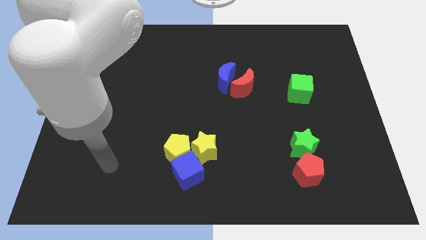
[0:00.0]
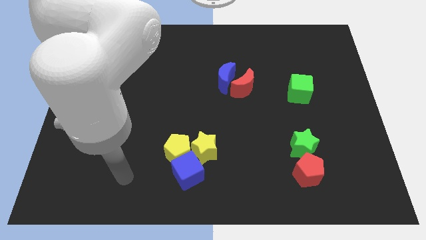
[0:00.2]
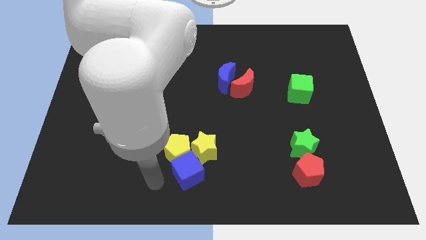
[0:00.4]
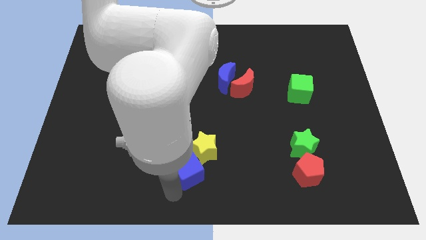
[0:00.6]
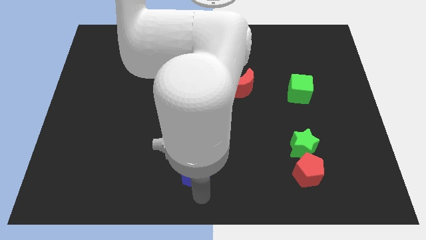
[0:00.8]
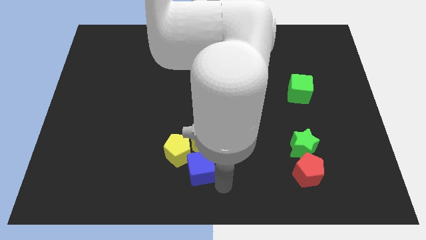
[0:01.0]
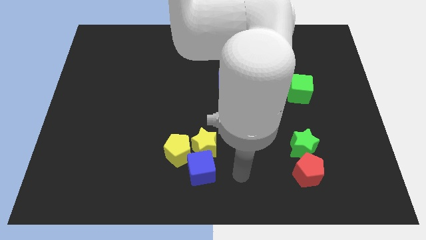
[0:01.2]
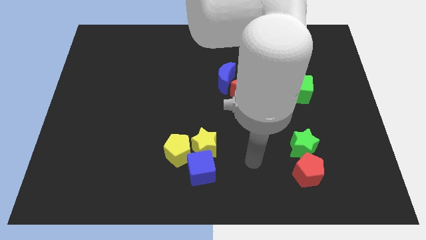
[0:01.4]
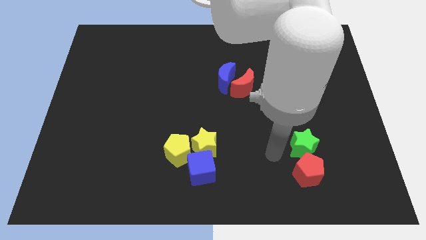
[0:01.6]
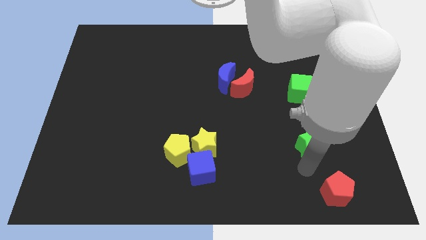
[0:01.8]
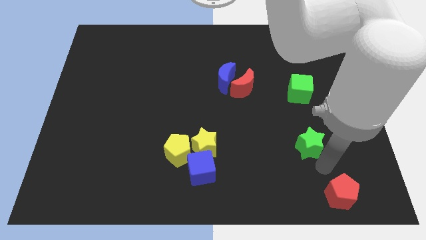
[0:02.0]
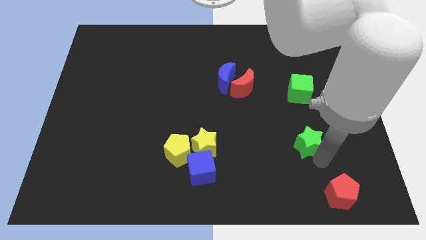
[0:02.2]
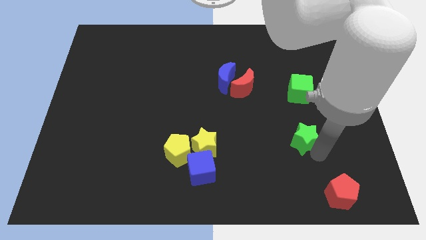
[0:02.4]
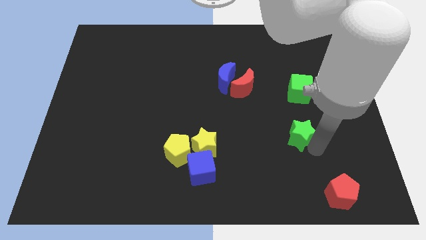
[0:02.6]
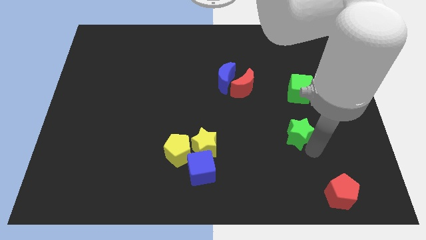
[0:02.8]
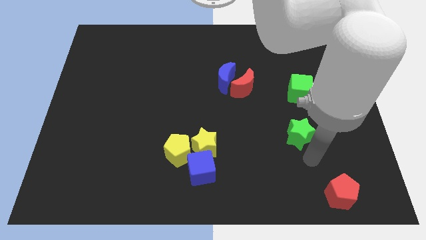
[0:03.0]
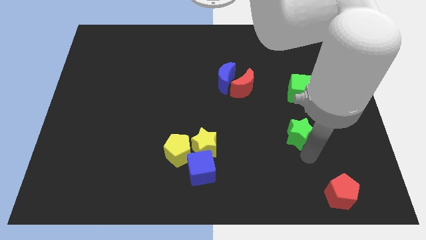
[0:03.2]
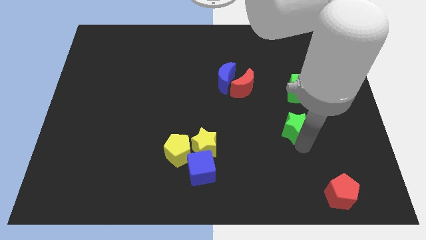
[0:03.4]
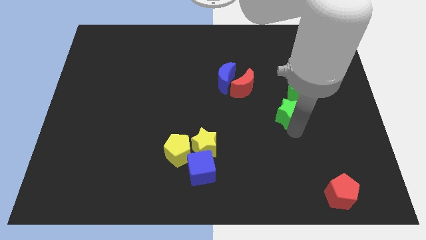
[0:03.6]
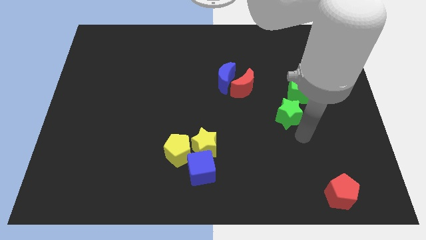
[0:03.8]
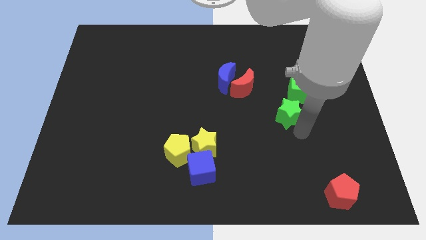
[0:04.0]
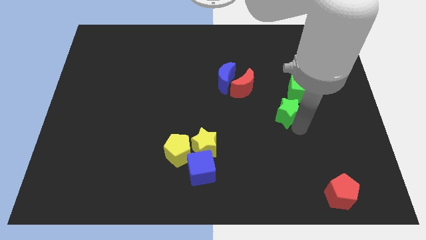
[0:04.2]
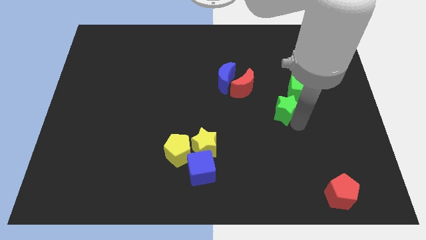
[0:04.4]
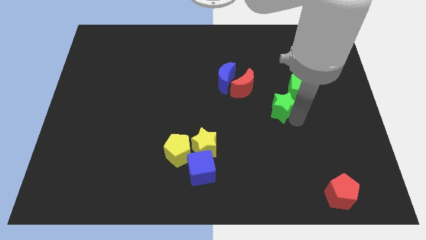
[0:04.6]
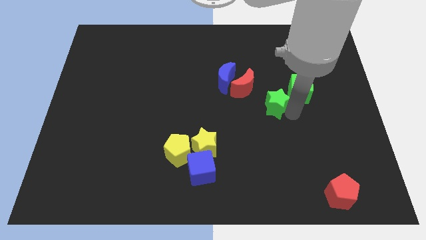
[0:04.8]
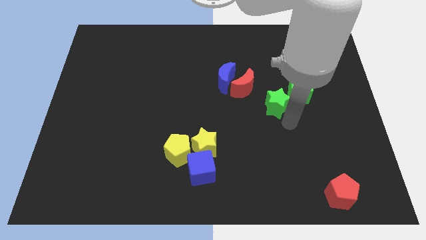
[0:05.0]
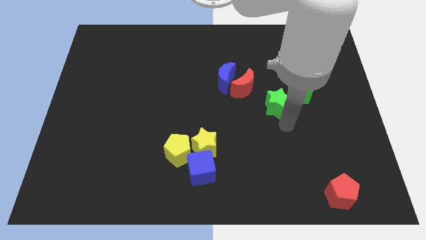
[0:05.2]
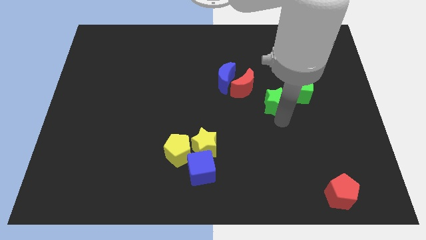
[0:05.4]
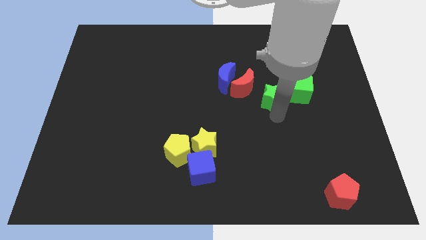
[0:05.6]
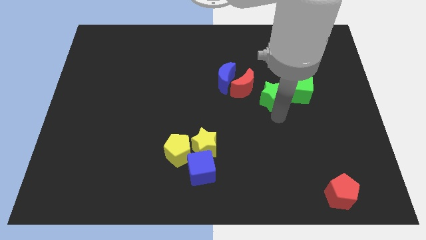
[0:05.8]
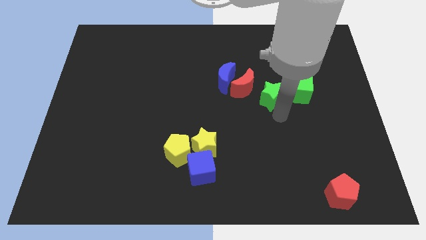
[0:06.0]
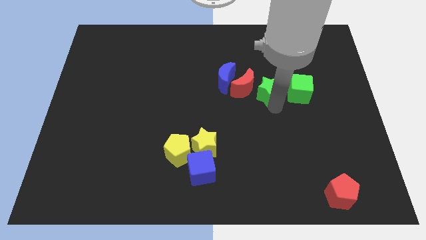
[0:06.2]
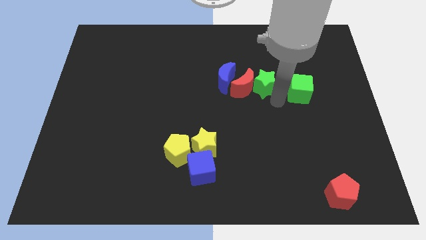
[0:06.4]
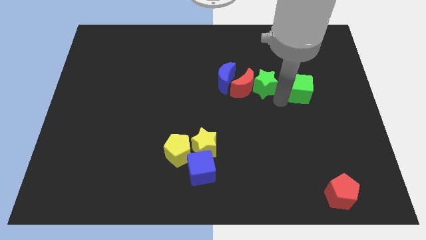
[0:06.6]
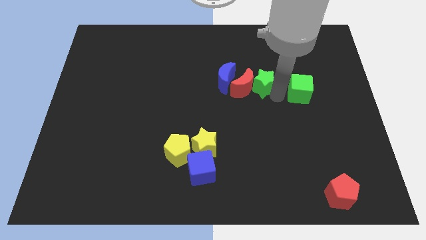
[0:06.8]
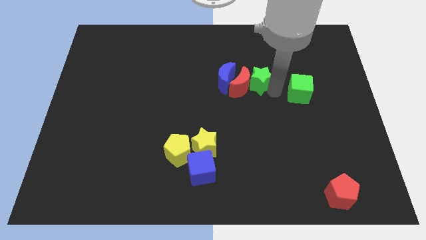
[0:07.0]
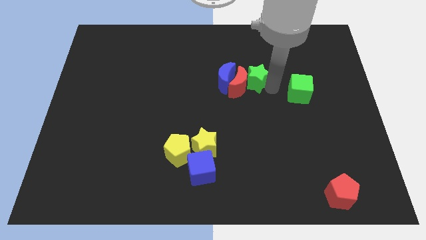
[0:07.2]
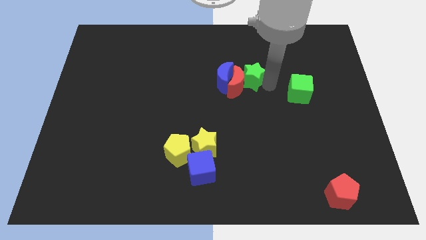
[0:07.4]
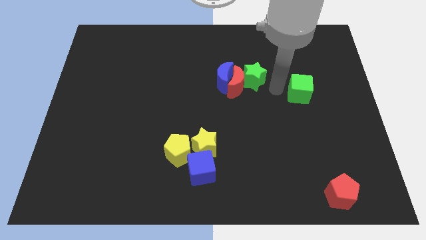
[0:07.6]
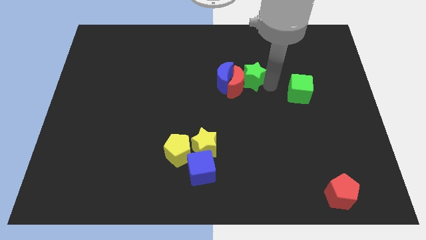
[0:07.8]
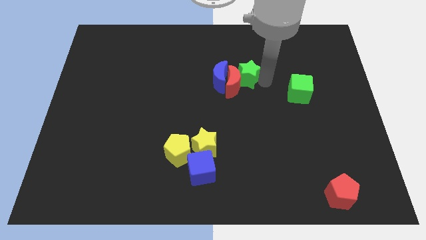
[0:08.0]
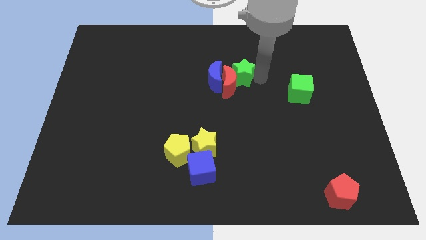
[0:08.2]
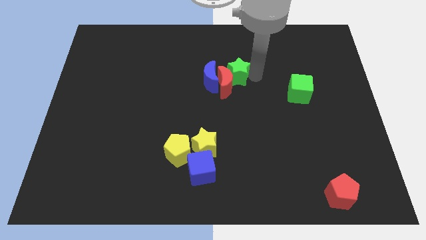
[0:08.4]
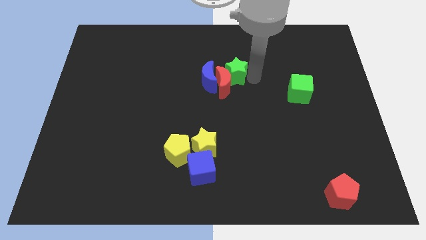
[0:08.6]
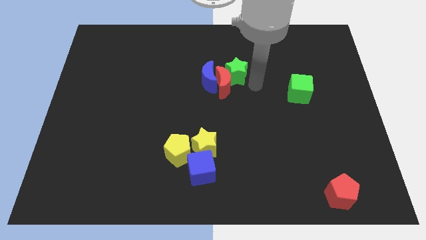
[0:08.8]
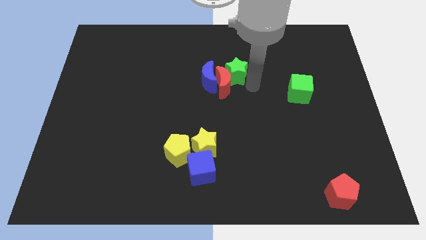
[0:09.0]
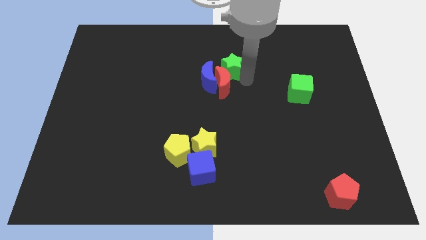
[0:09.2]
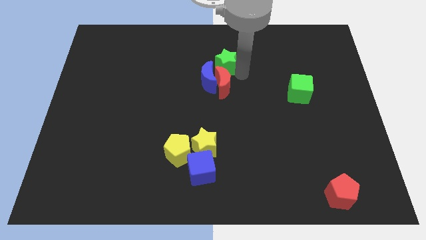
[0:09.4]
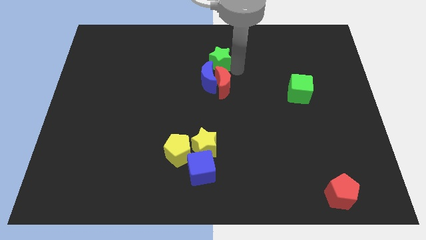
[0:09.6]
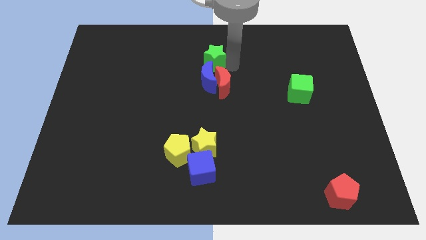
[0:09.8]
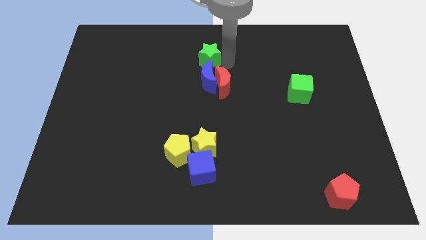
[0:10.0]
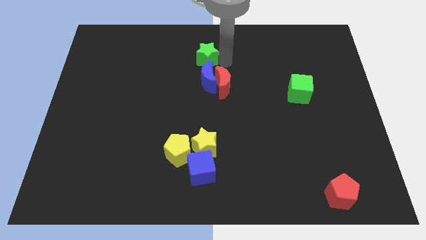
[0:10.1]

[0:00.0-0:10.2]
push the green star to the top left of the blue moon

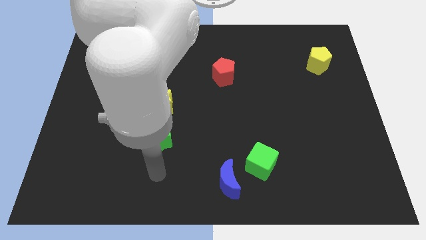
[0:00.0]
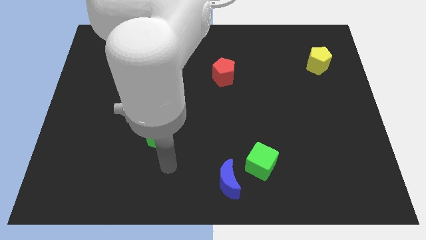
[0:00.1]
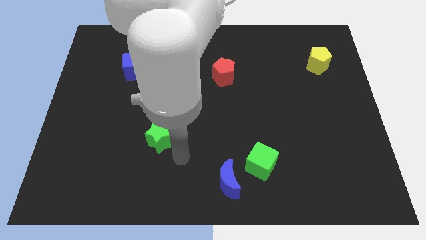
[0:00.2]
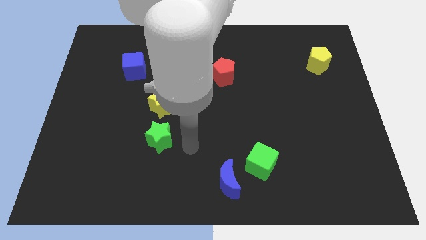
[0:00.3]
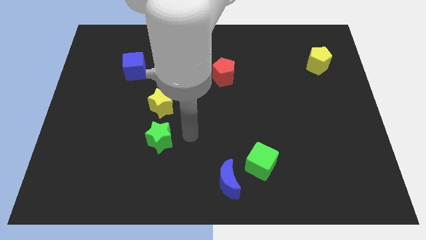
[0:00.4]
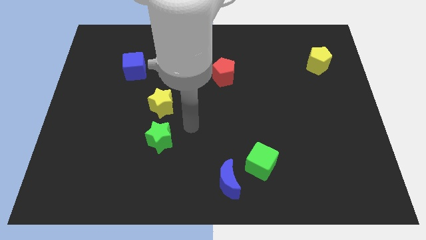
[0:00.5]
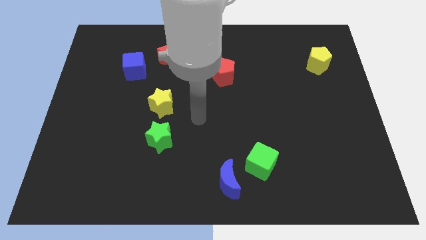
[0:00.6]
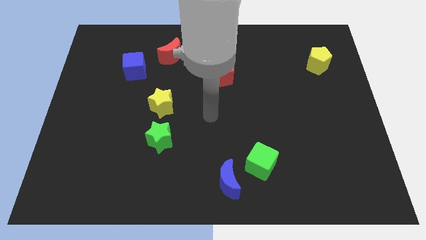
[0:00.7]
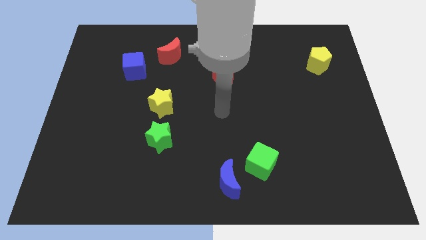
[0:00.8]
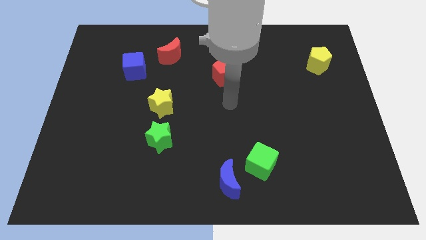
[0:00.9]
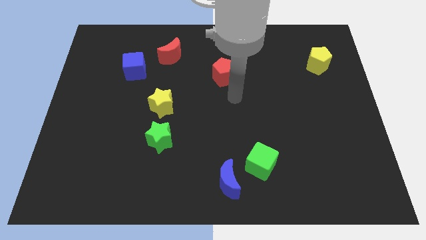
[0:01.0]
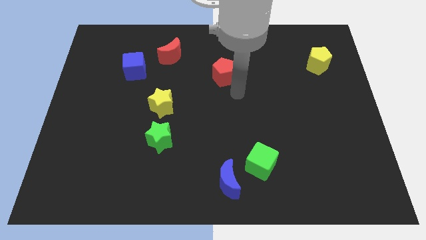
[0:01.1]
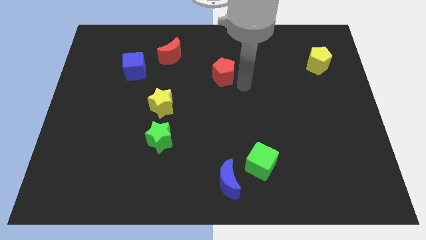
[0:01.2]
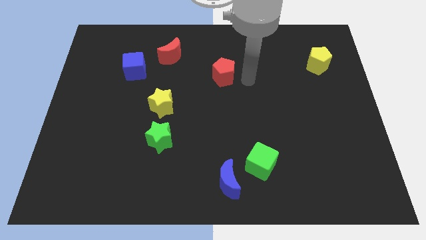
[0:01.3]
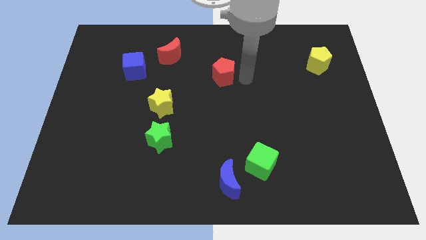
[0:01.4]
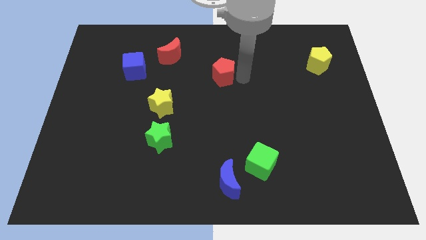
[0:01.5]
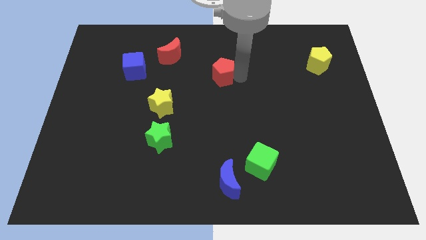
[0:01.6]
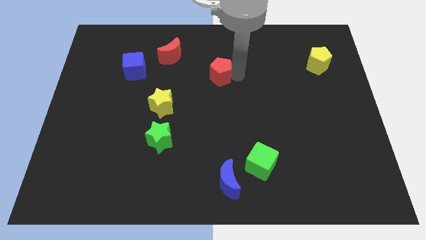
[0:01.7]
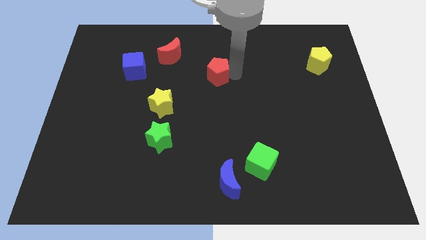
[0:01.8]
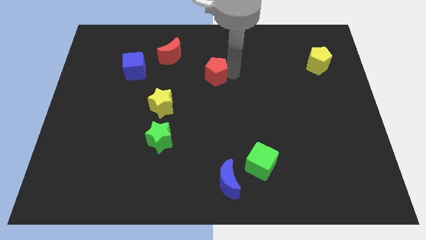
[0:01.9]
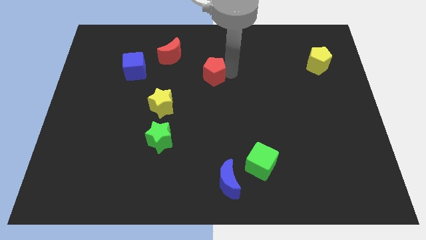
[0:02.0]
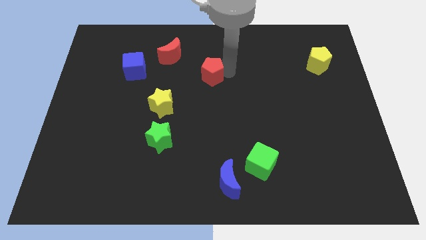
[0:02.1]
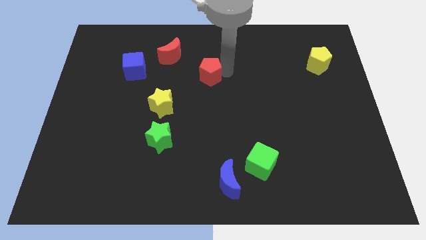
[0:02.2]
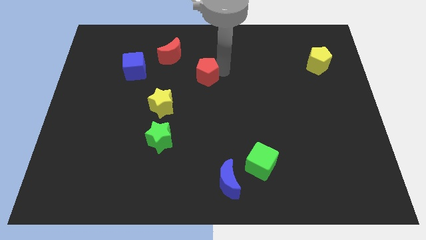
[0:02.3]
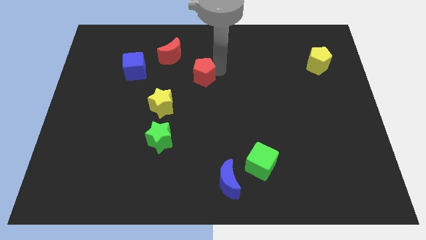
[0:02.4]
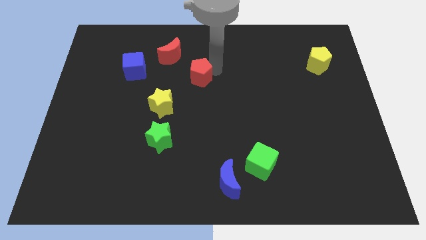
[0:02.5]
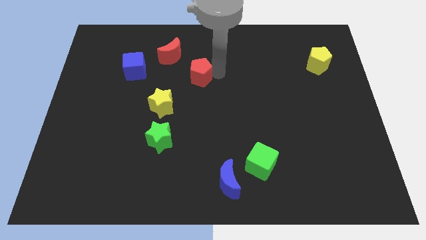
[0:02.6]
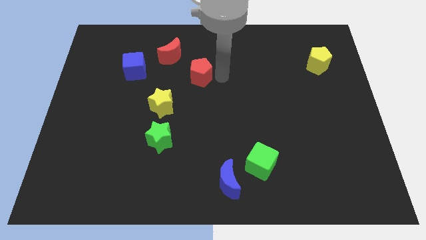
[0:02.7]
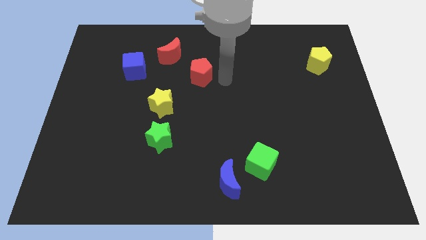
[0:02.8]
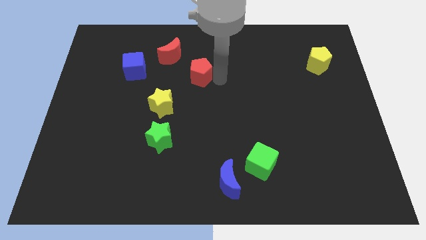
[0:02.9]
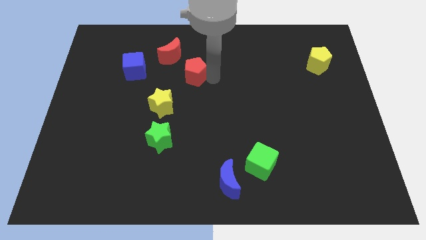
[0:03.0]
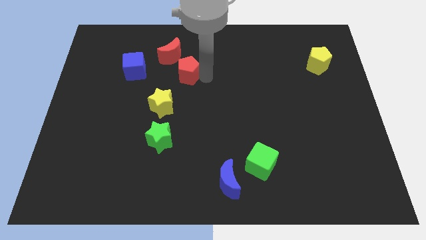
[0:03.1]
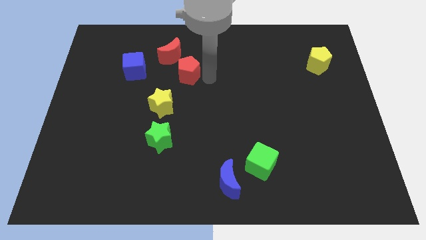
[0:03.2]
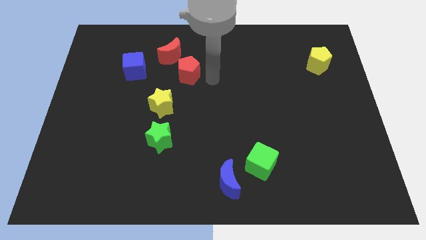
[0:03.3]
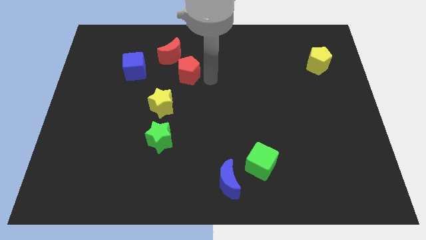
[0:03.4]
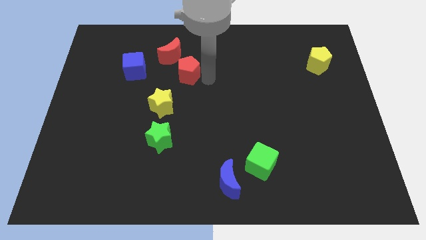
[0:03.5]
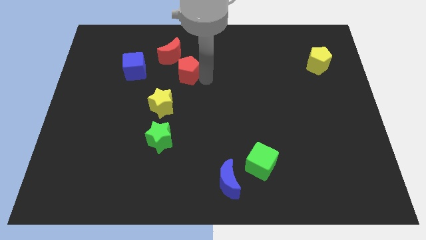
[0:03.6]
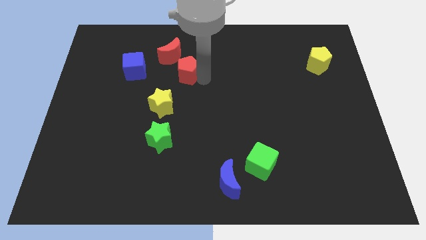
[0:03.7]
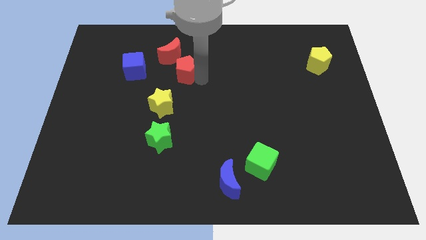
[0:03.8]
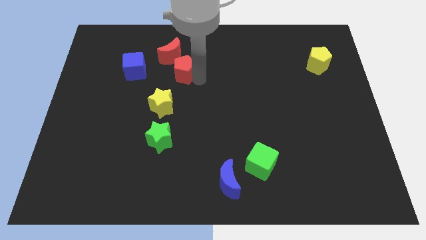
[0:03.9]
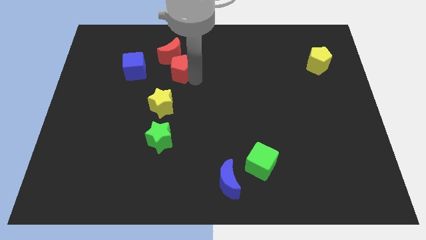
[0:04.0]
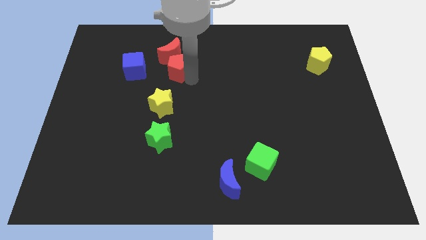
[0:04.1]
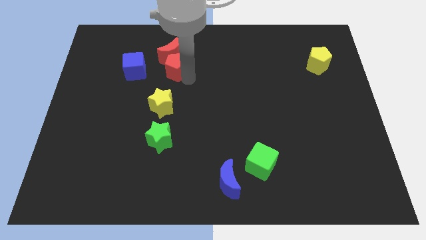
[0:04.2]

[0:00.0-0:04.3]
slide the red pentagon to the bottom left side of the red moon
